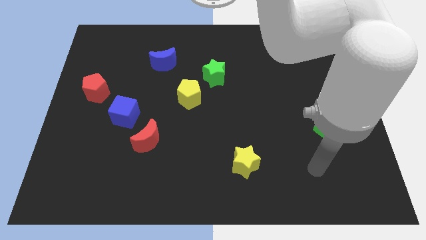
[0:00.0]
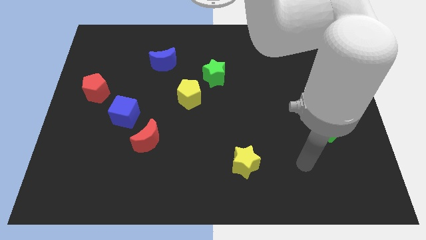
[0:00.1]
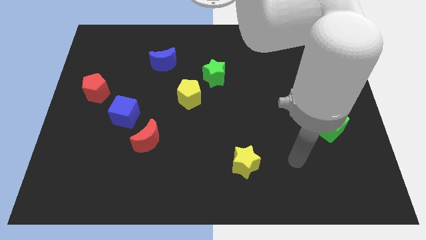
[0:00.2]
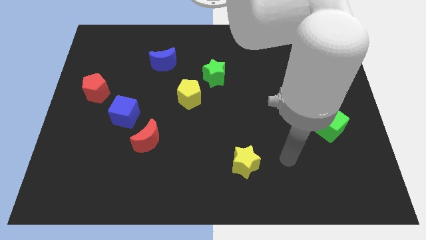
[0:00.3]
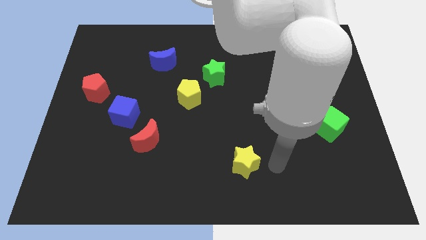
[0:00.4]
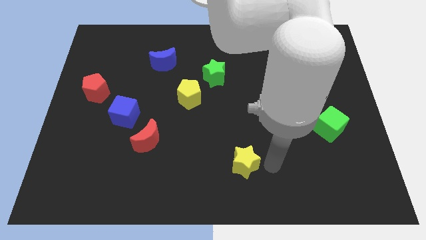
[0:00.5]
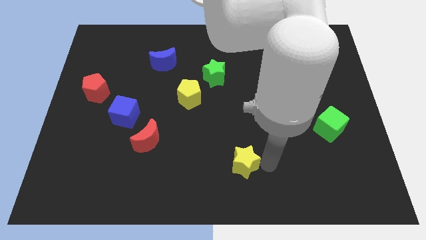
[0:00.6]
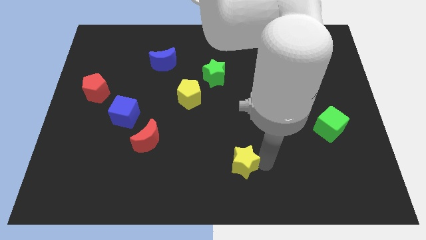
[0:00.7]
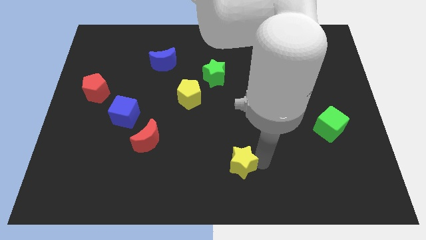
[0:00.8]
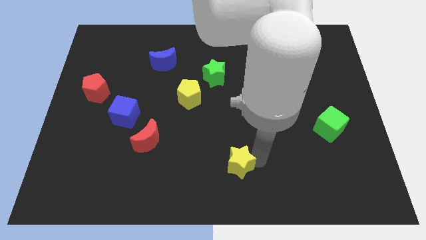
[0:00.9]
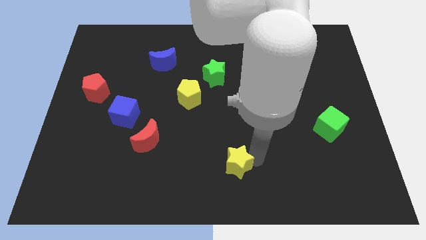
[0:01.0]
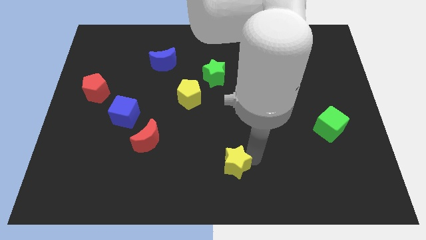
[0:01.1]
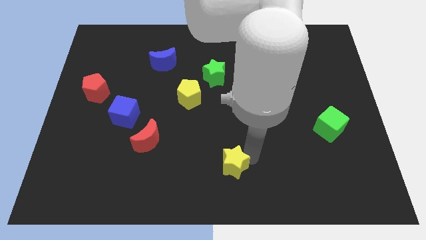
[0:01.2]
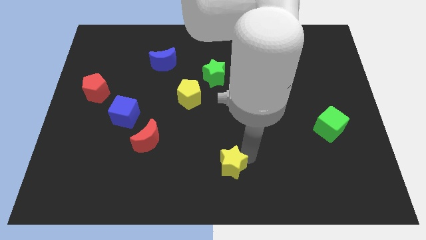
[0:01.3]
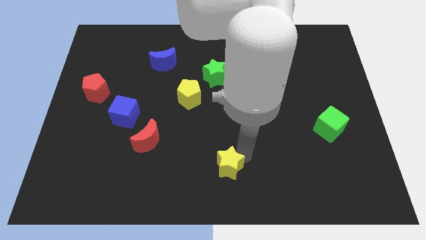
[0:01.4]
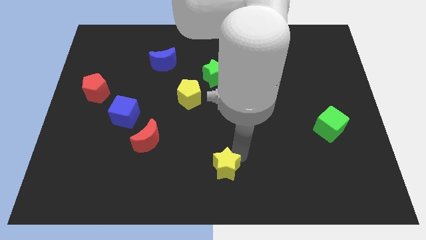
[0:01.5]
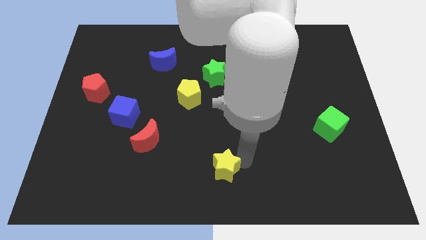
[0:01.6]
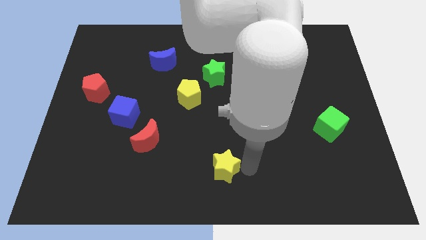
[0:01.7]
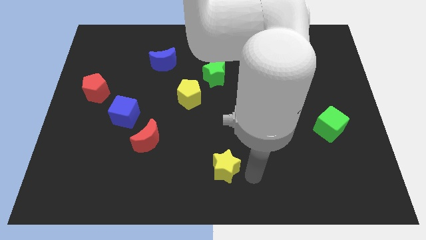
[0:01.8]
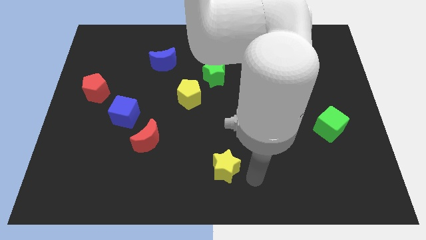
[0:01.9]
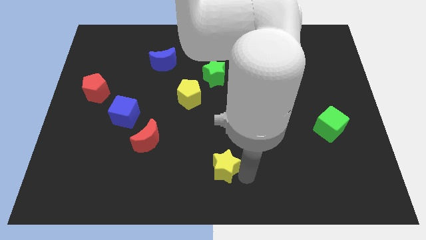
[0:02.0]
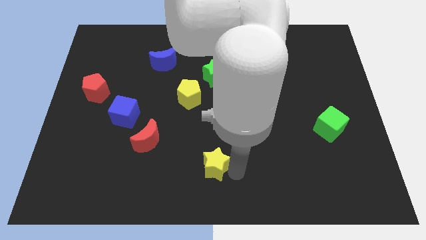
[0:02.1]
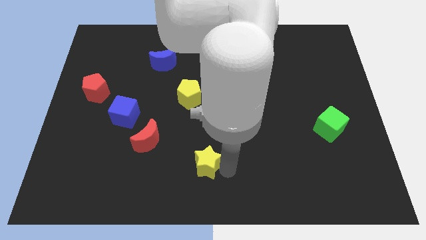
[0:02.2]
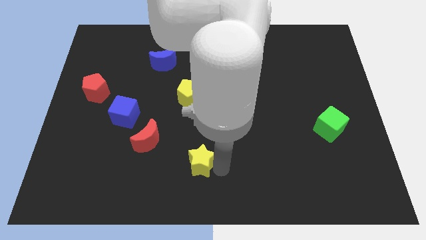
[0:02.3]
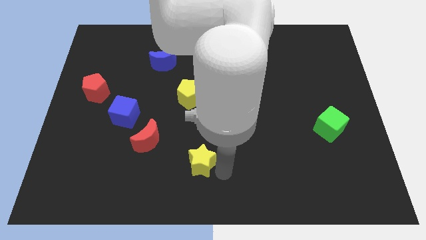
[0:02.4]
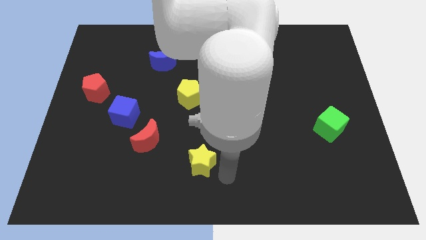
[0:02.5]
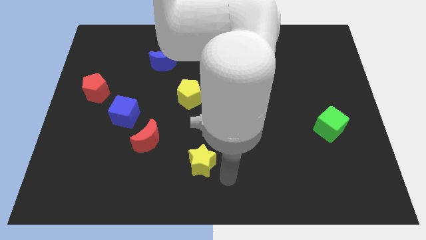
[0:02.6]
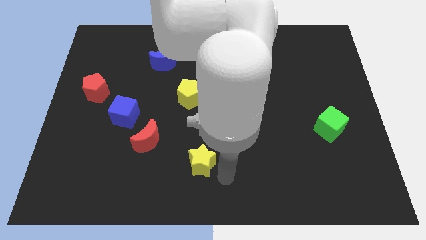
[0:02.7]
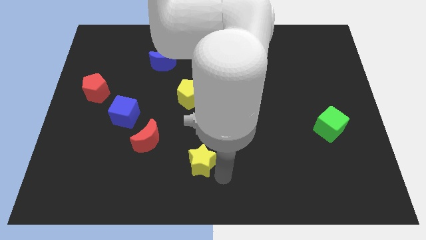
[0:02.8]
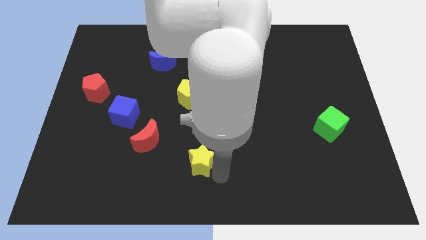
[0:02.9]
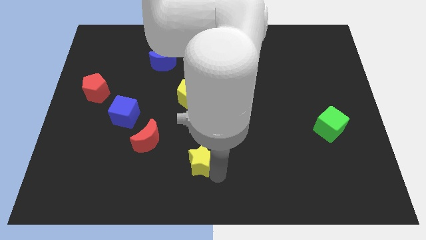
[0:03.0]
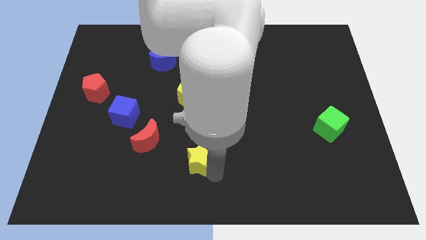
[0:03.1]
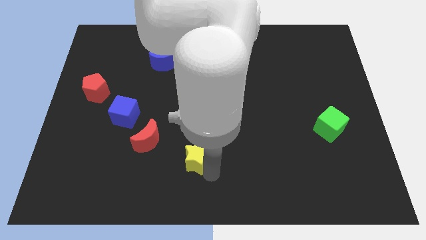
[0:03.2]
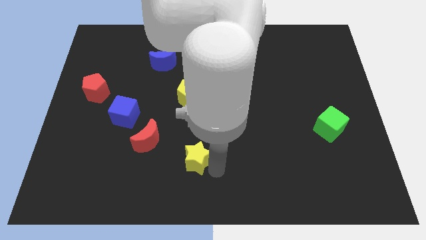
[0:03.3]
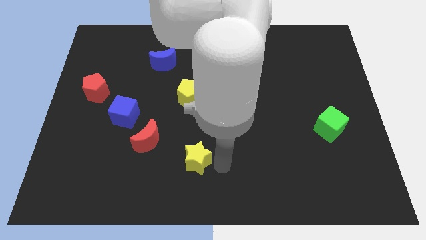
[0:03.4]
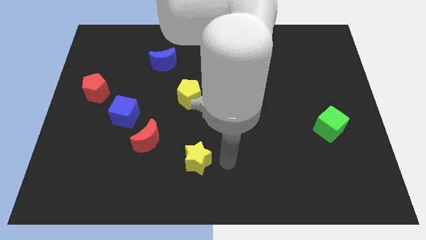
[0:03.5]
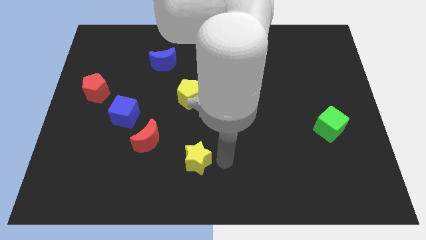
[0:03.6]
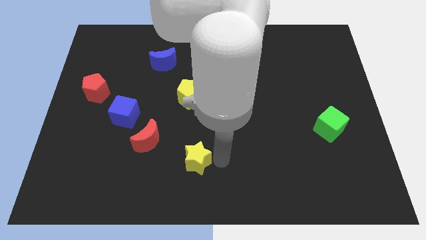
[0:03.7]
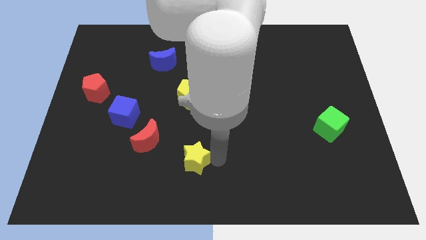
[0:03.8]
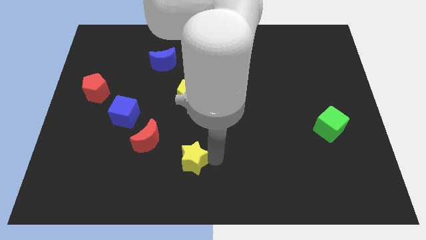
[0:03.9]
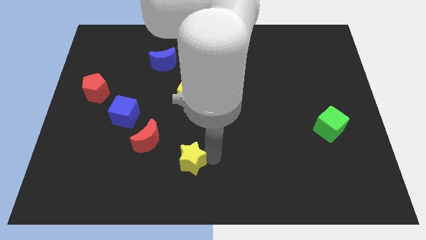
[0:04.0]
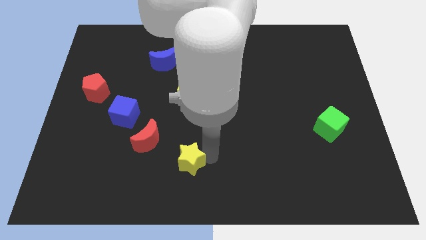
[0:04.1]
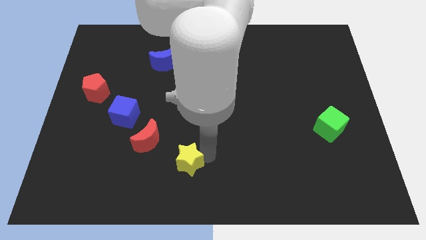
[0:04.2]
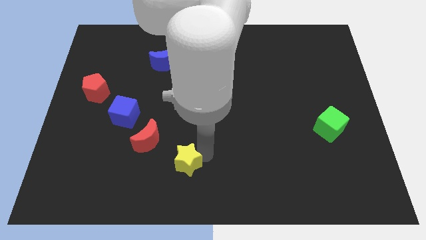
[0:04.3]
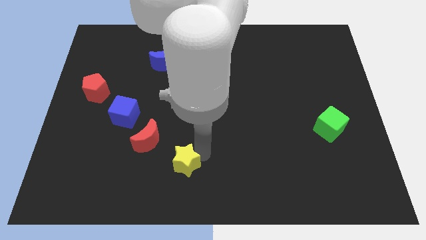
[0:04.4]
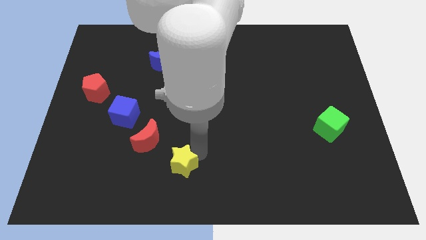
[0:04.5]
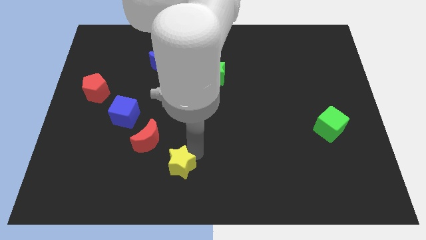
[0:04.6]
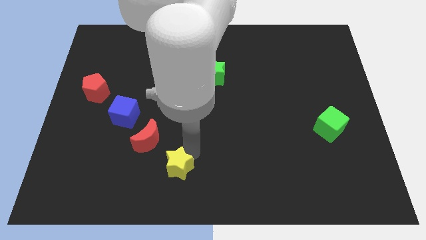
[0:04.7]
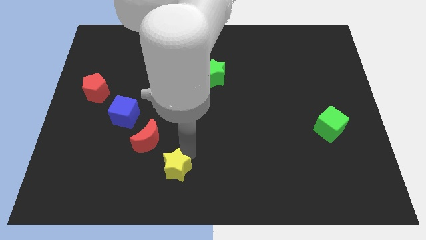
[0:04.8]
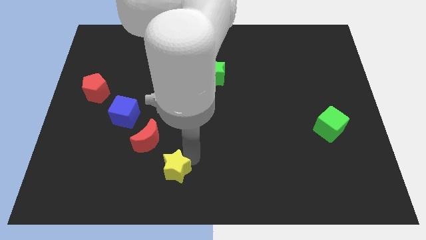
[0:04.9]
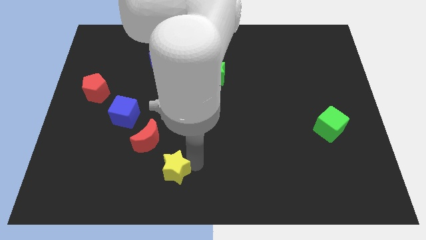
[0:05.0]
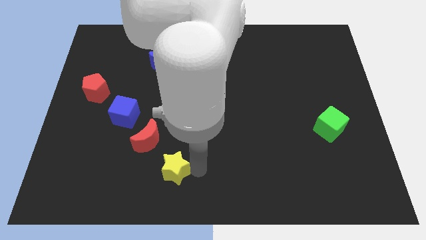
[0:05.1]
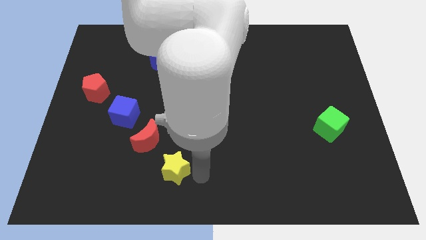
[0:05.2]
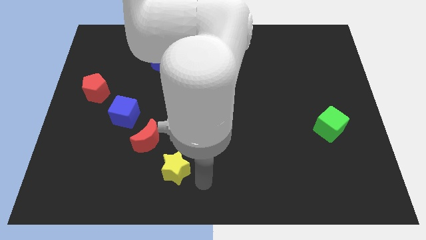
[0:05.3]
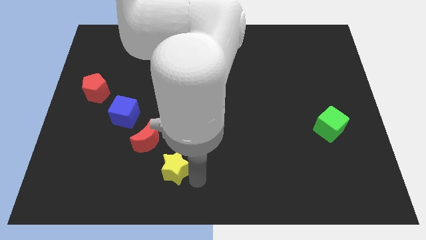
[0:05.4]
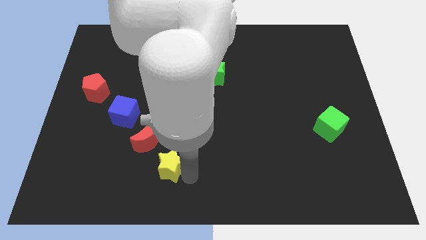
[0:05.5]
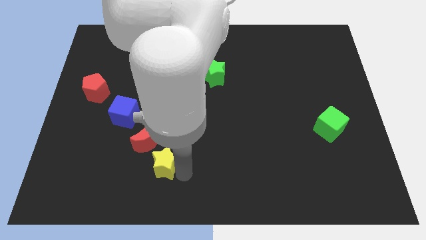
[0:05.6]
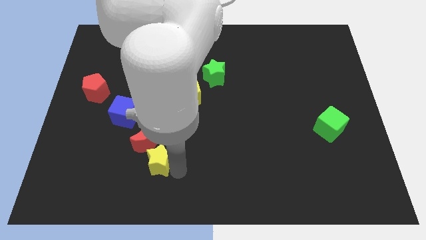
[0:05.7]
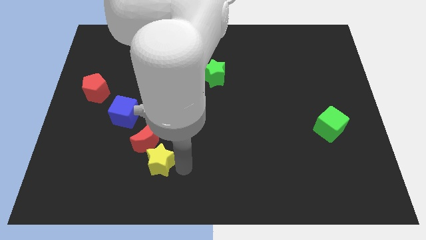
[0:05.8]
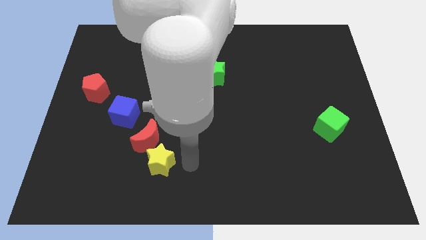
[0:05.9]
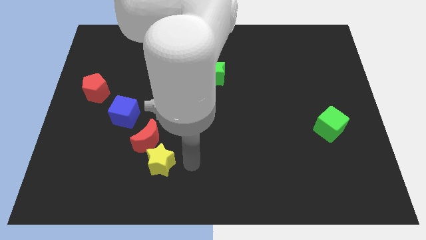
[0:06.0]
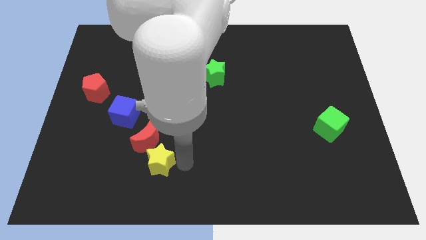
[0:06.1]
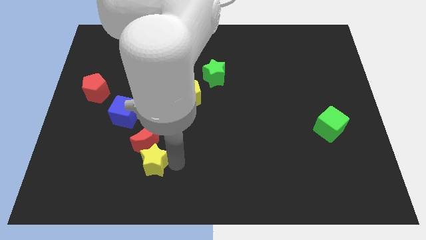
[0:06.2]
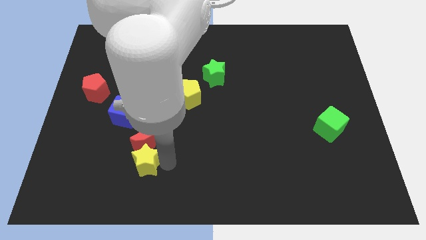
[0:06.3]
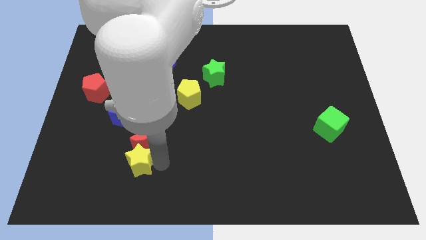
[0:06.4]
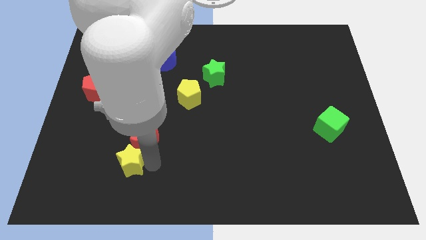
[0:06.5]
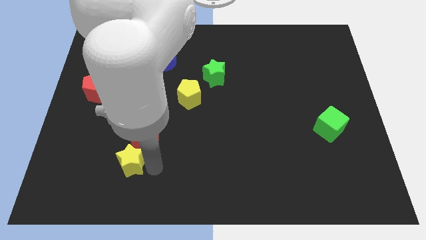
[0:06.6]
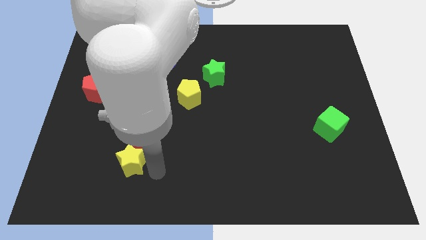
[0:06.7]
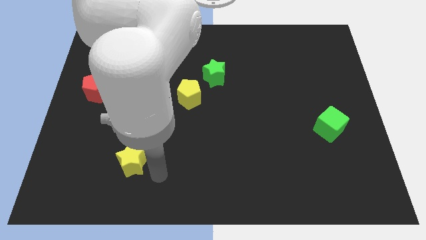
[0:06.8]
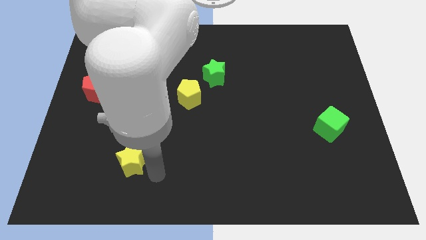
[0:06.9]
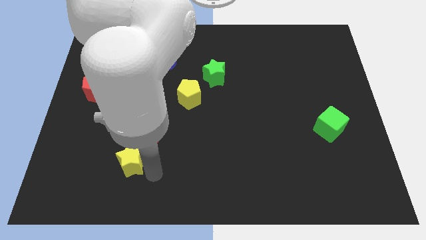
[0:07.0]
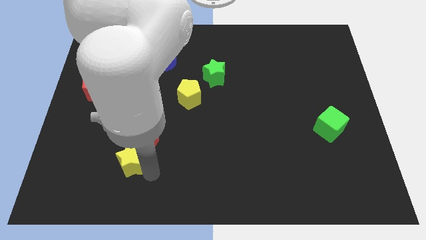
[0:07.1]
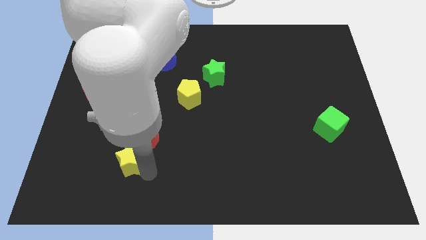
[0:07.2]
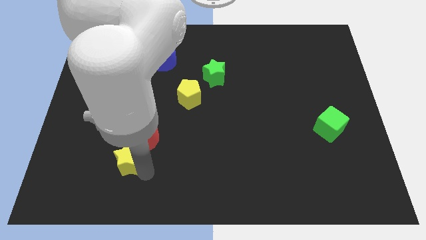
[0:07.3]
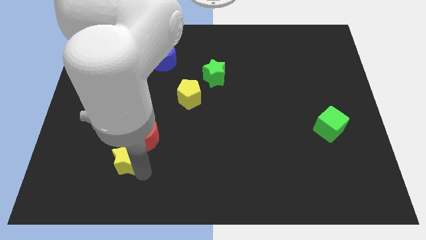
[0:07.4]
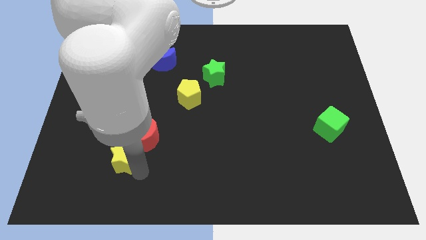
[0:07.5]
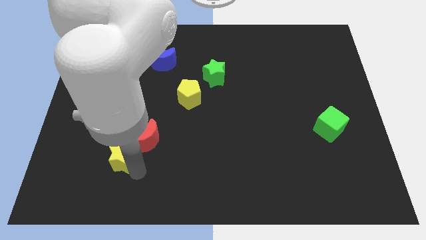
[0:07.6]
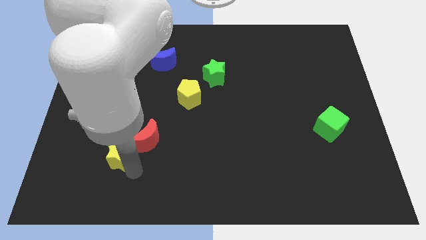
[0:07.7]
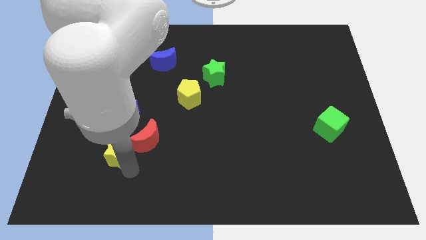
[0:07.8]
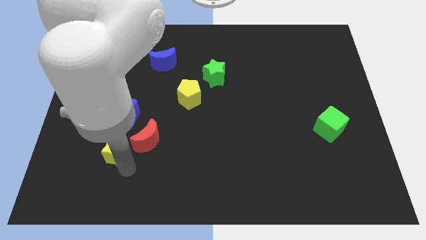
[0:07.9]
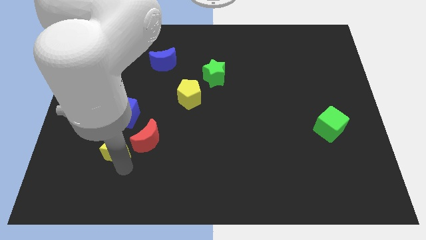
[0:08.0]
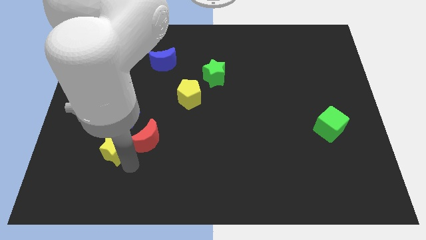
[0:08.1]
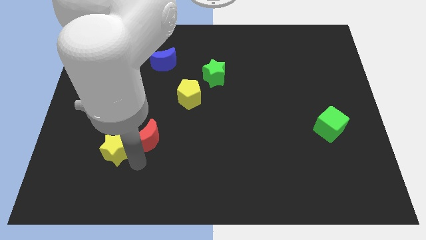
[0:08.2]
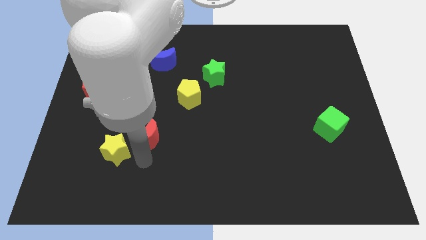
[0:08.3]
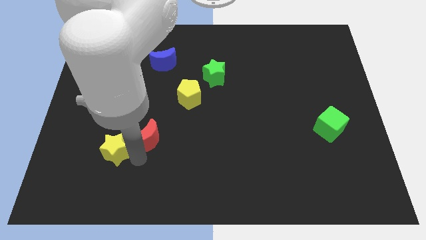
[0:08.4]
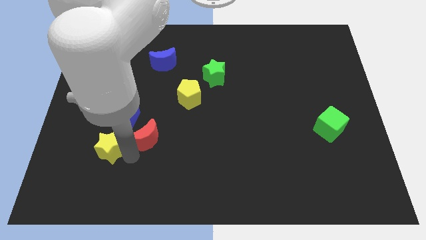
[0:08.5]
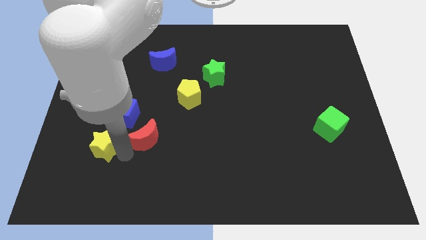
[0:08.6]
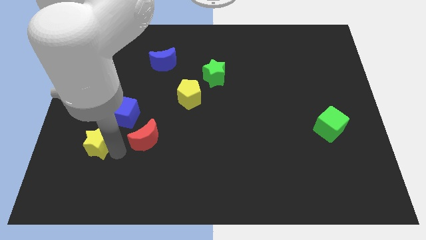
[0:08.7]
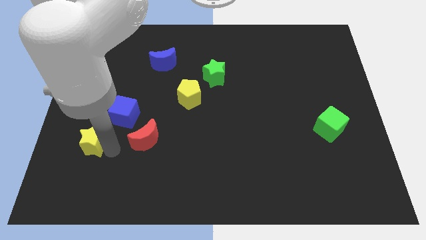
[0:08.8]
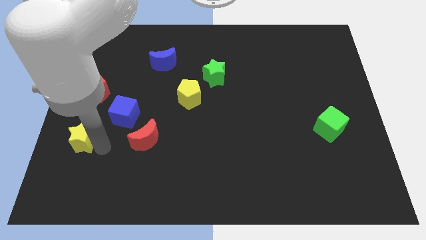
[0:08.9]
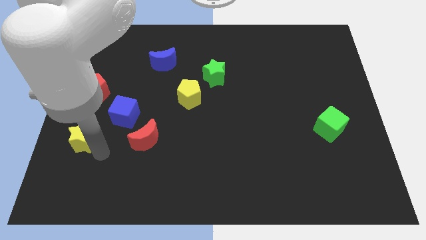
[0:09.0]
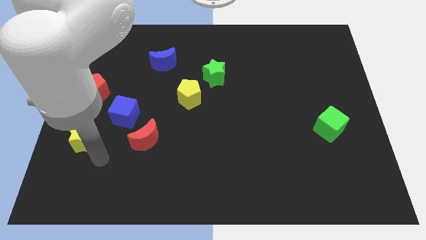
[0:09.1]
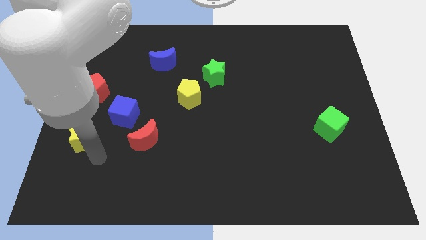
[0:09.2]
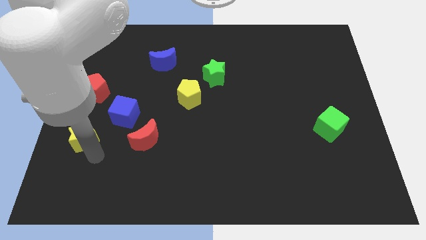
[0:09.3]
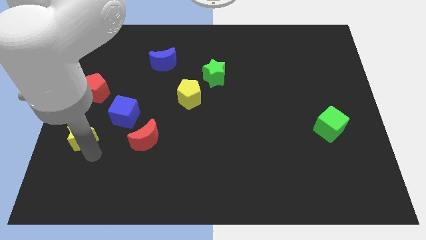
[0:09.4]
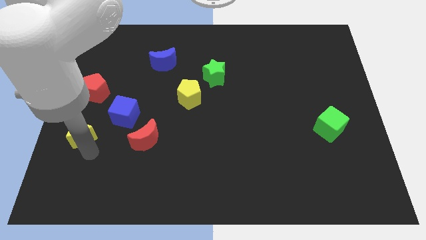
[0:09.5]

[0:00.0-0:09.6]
move the yellow star to the left side
